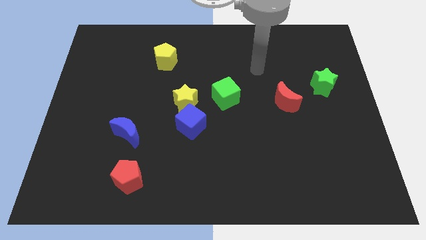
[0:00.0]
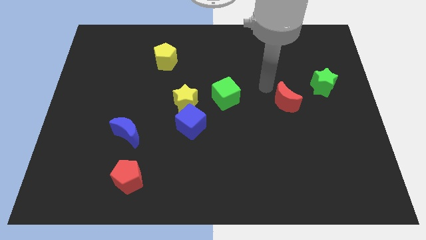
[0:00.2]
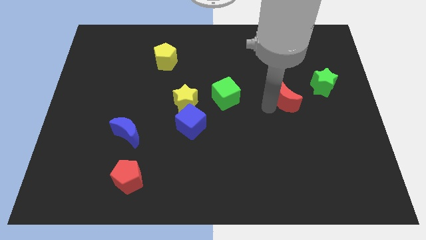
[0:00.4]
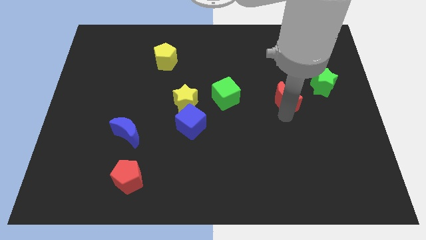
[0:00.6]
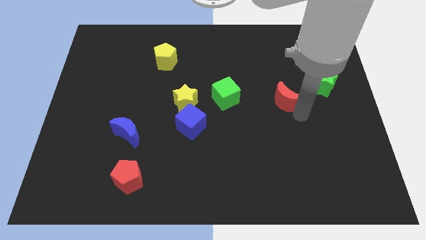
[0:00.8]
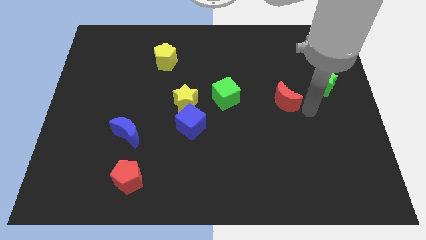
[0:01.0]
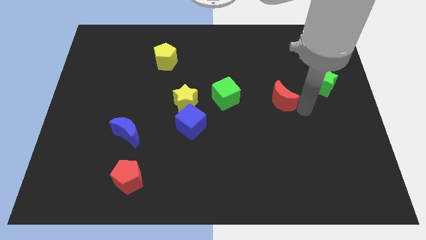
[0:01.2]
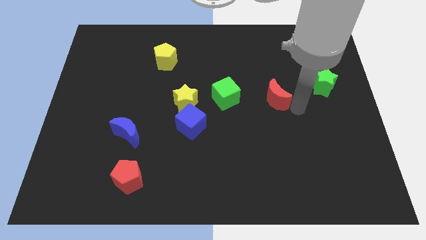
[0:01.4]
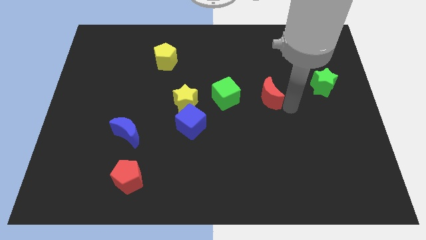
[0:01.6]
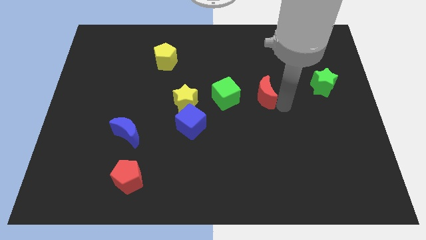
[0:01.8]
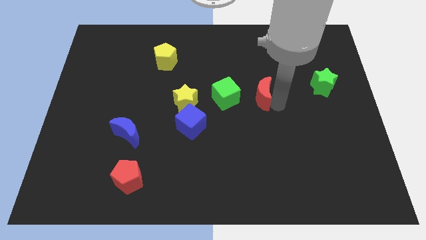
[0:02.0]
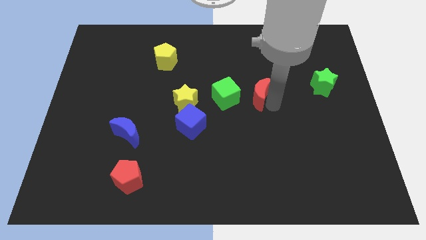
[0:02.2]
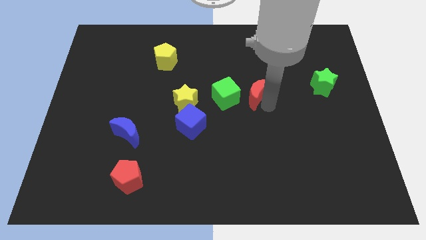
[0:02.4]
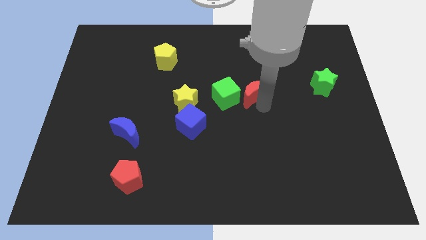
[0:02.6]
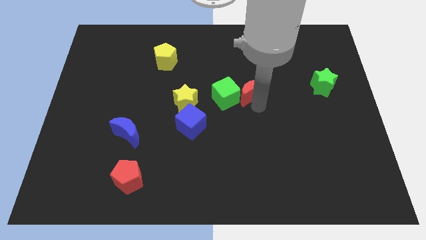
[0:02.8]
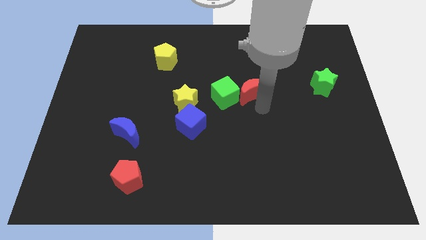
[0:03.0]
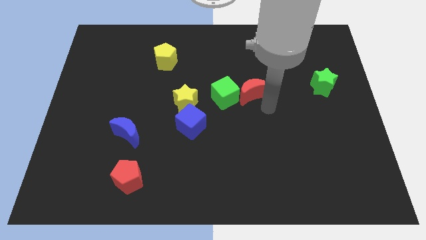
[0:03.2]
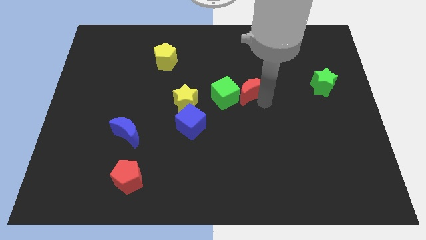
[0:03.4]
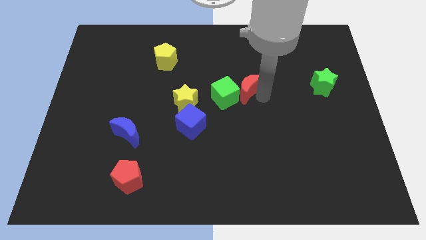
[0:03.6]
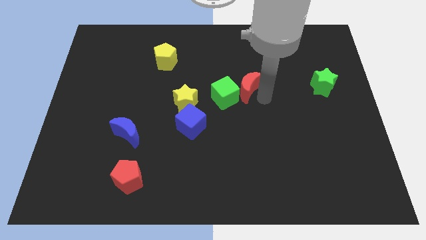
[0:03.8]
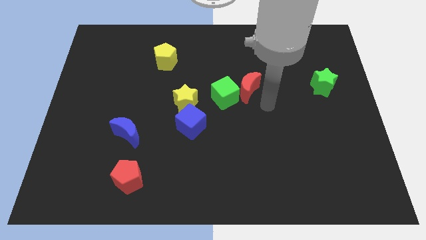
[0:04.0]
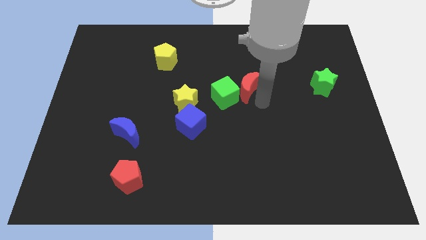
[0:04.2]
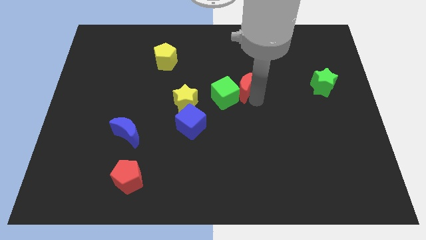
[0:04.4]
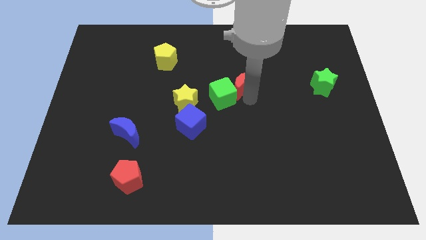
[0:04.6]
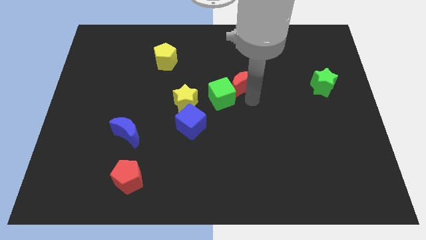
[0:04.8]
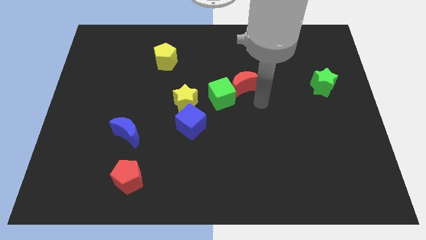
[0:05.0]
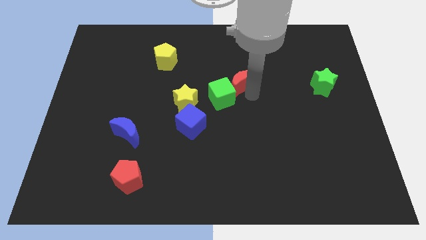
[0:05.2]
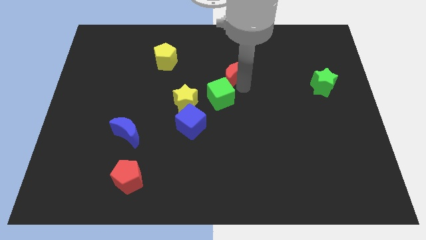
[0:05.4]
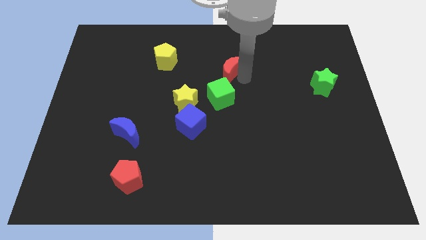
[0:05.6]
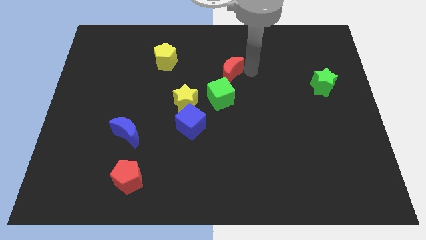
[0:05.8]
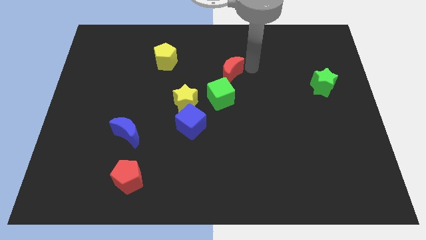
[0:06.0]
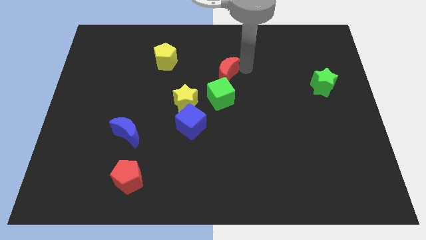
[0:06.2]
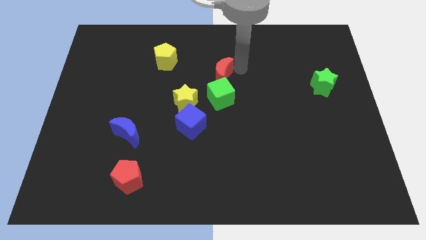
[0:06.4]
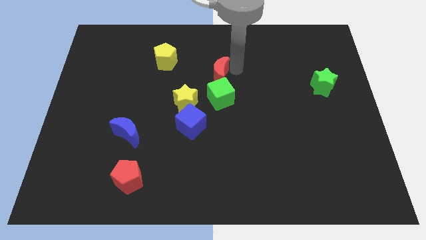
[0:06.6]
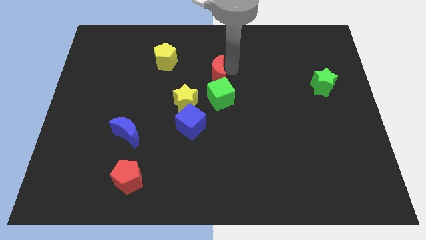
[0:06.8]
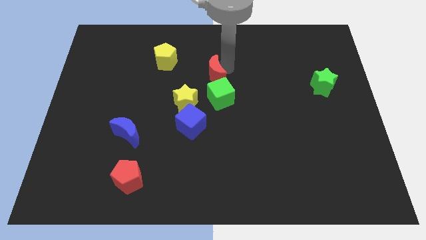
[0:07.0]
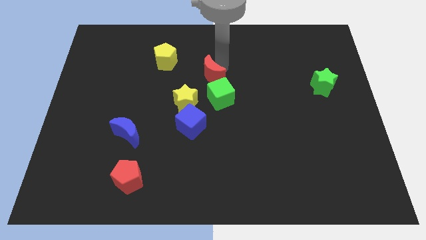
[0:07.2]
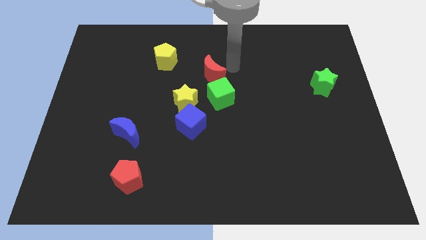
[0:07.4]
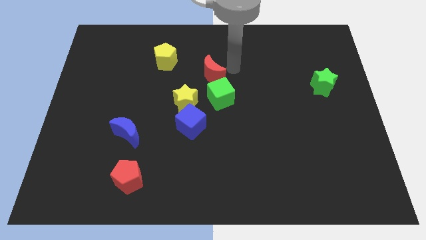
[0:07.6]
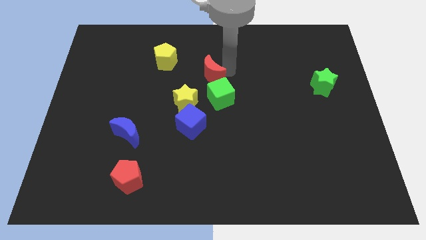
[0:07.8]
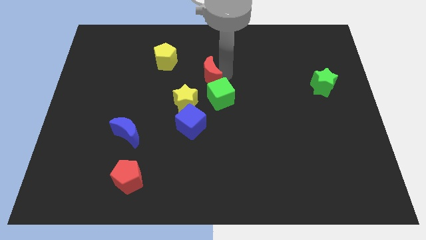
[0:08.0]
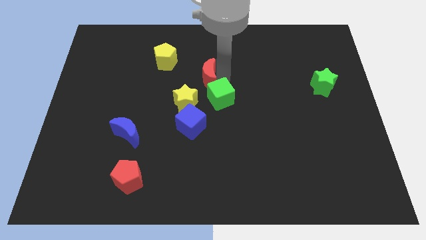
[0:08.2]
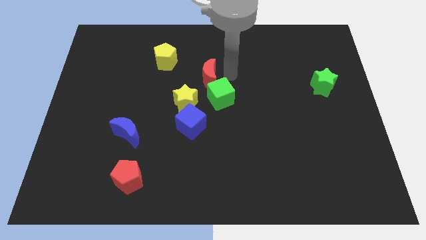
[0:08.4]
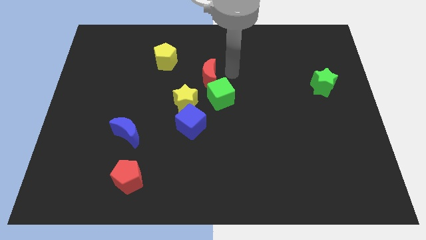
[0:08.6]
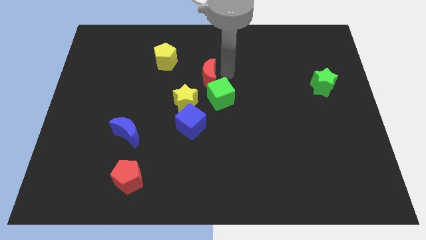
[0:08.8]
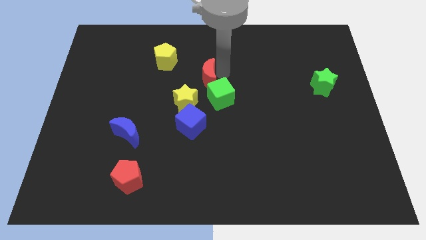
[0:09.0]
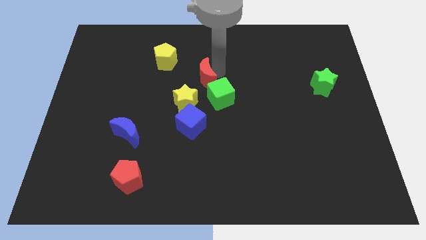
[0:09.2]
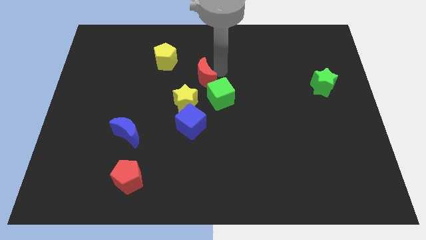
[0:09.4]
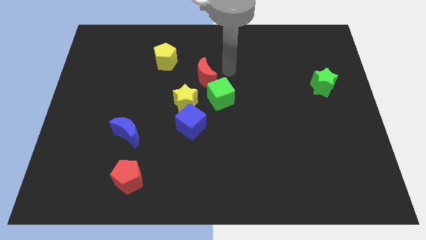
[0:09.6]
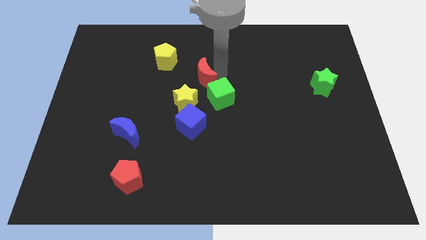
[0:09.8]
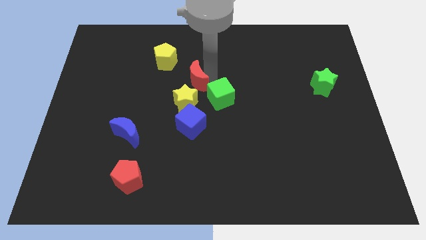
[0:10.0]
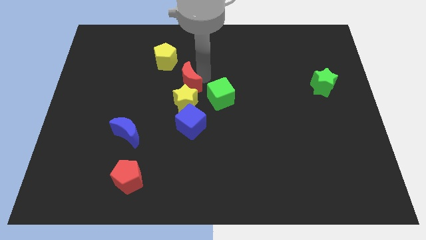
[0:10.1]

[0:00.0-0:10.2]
push the red moon to the left of the green cube

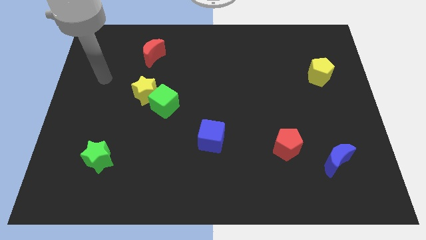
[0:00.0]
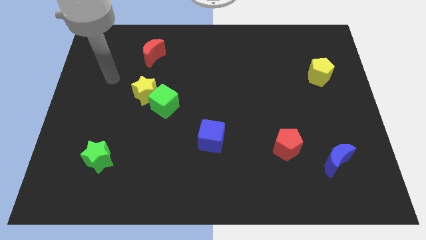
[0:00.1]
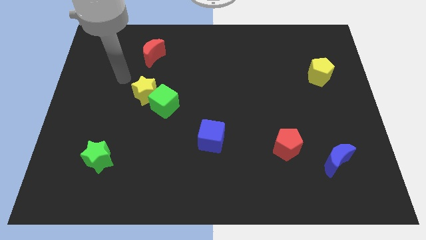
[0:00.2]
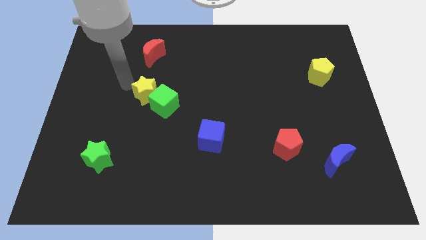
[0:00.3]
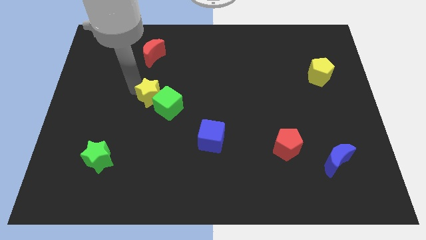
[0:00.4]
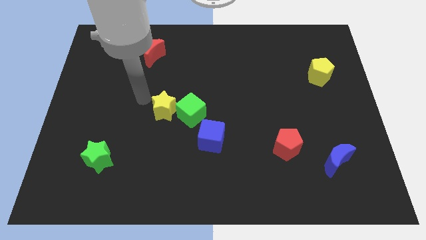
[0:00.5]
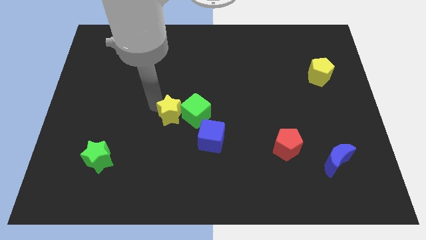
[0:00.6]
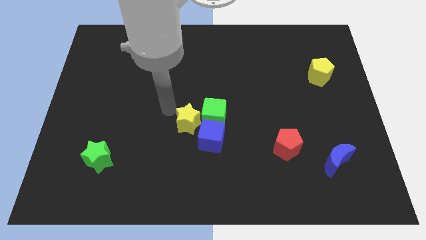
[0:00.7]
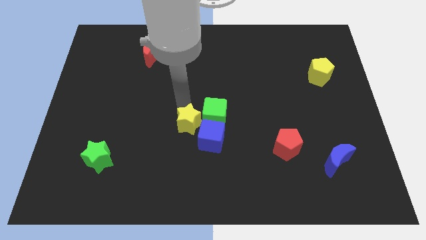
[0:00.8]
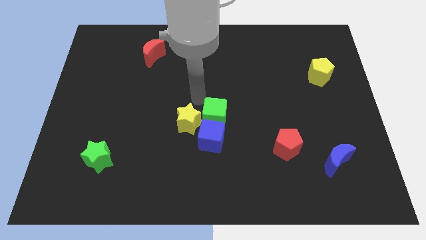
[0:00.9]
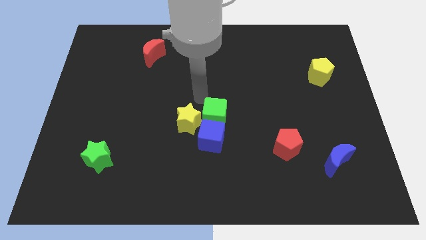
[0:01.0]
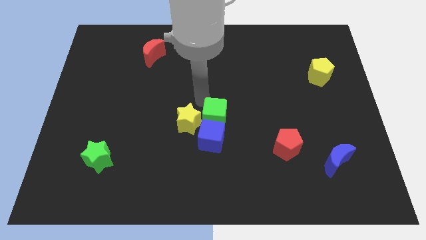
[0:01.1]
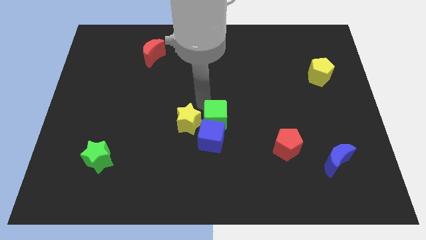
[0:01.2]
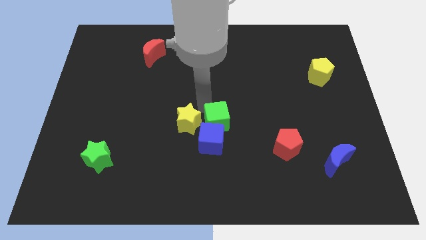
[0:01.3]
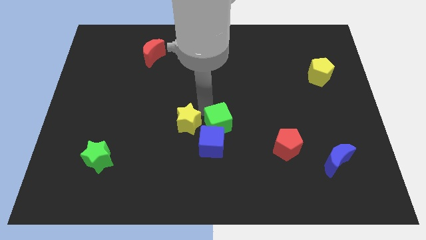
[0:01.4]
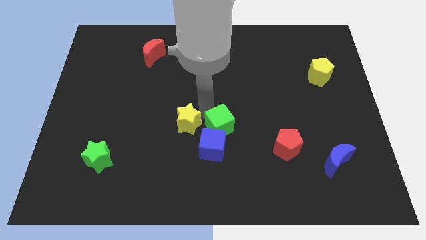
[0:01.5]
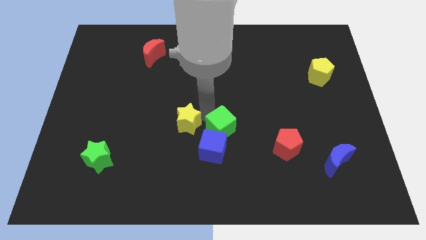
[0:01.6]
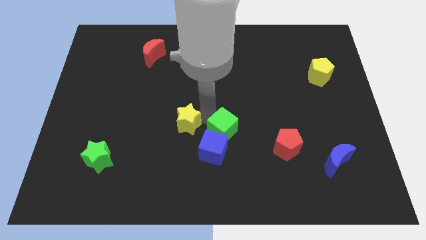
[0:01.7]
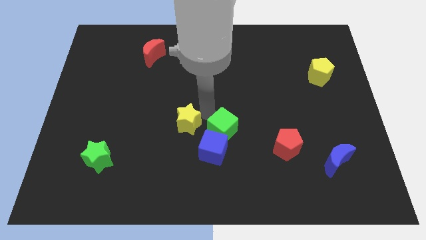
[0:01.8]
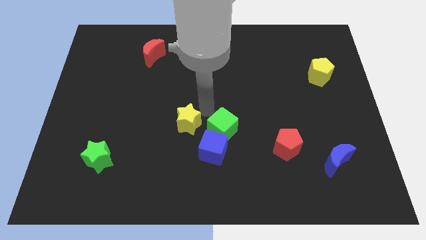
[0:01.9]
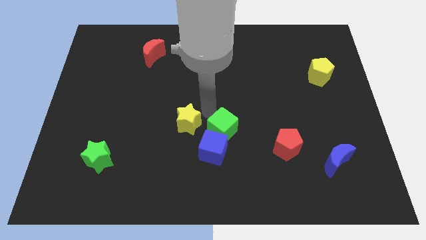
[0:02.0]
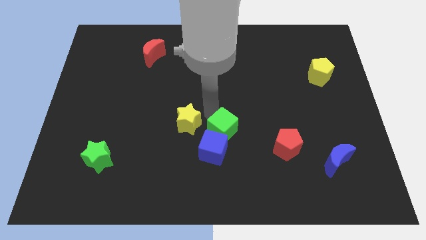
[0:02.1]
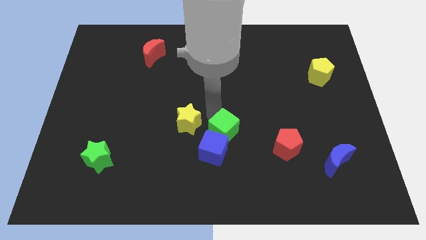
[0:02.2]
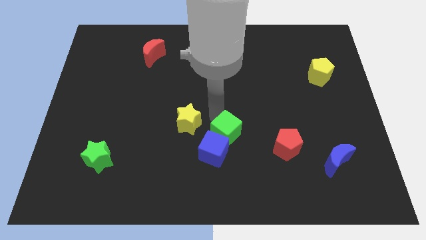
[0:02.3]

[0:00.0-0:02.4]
move the green cube to the left of the red pentagon
